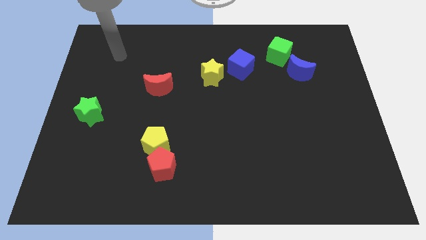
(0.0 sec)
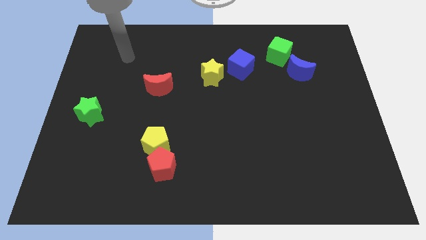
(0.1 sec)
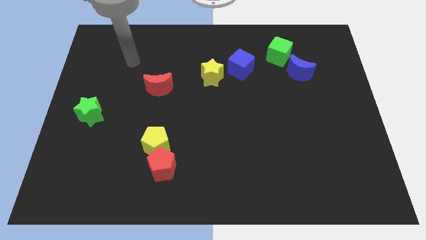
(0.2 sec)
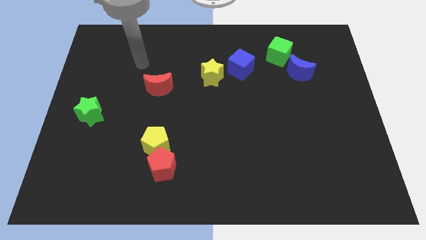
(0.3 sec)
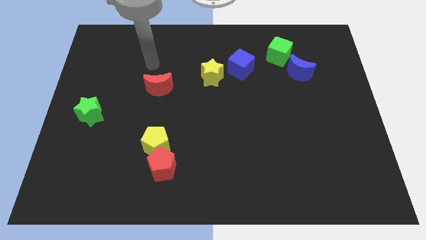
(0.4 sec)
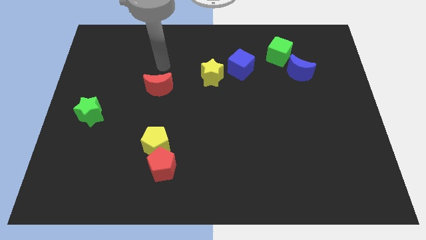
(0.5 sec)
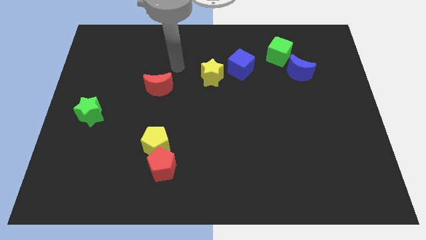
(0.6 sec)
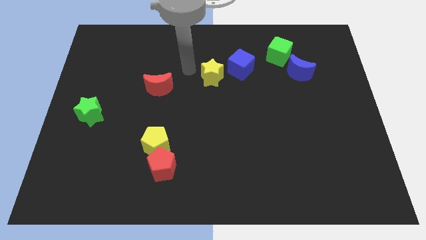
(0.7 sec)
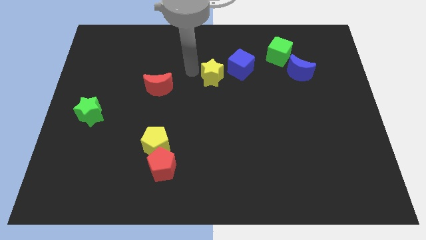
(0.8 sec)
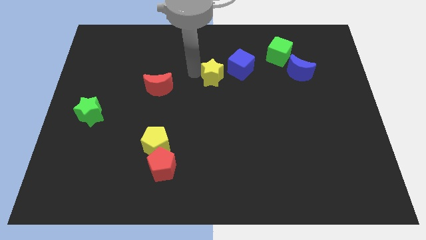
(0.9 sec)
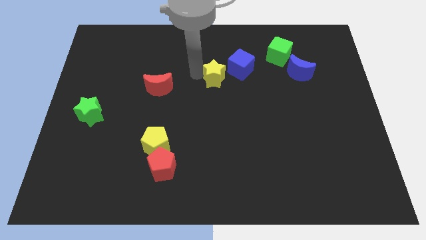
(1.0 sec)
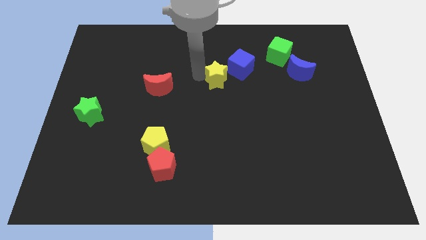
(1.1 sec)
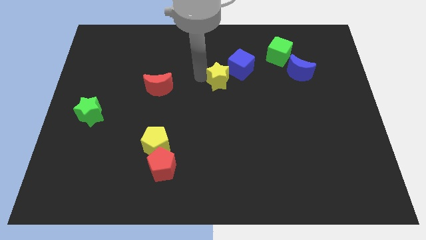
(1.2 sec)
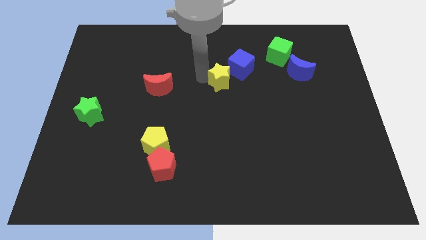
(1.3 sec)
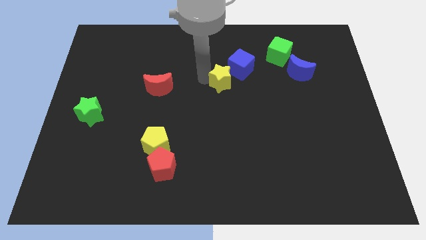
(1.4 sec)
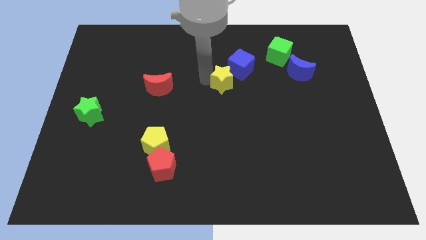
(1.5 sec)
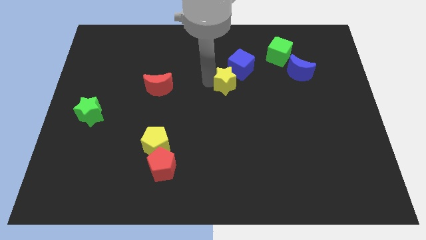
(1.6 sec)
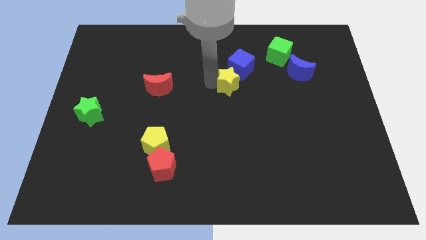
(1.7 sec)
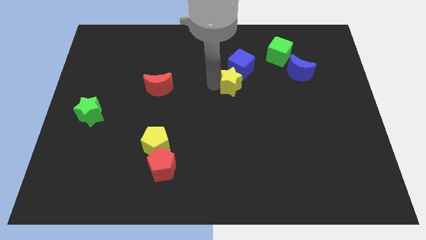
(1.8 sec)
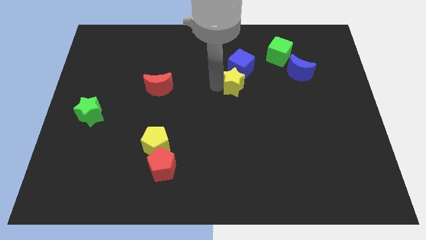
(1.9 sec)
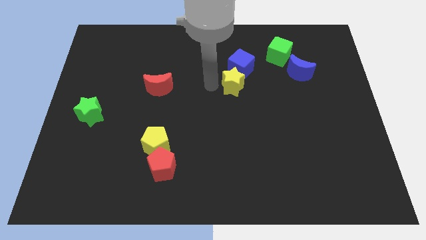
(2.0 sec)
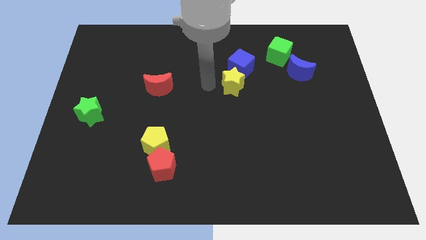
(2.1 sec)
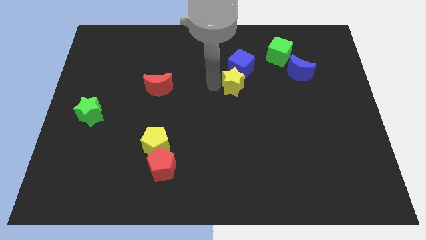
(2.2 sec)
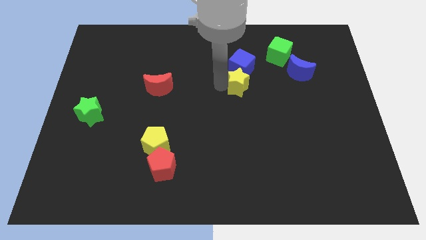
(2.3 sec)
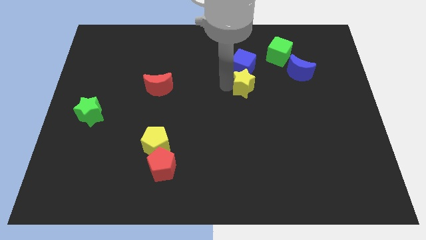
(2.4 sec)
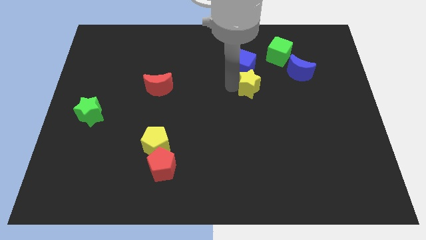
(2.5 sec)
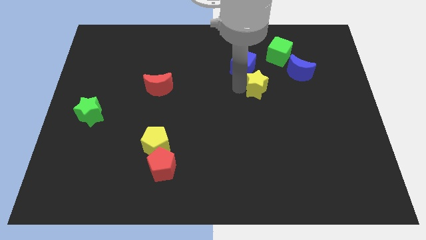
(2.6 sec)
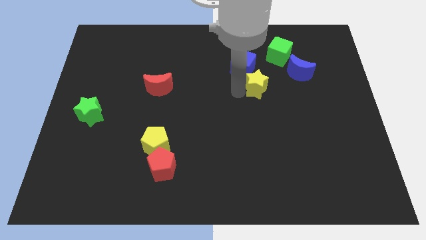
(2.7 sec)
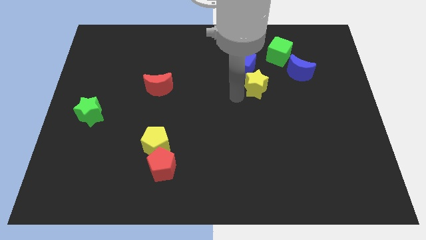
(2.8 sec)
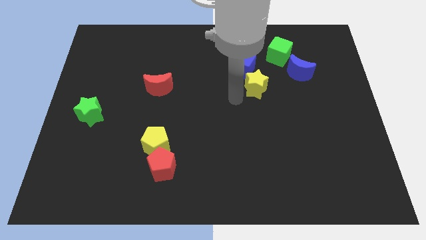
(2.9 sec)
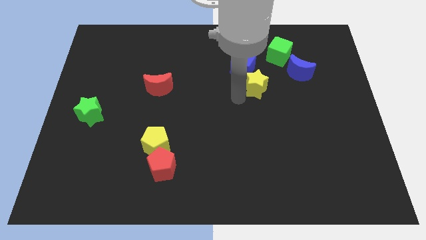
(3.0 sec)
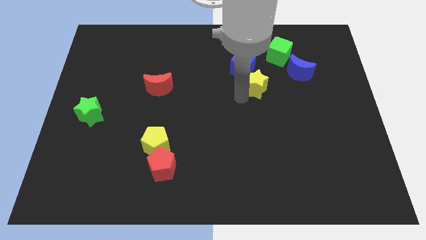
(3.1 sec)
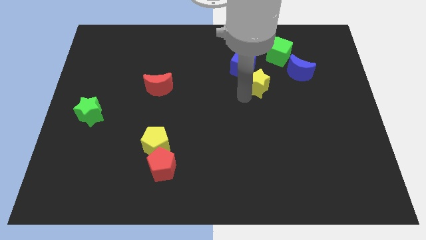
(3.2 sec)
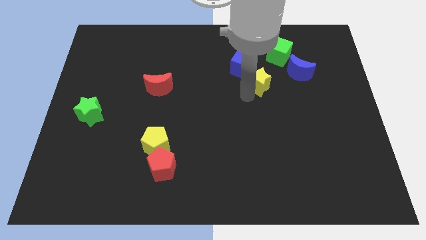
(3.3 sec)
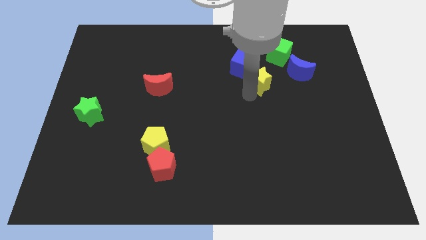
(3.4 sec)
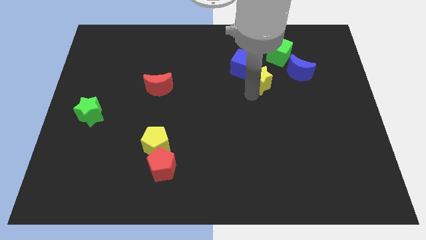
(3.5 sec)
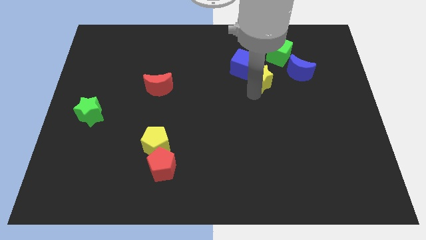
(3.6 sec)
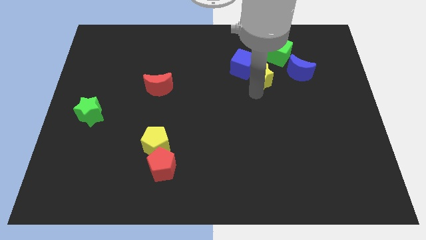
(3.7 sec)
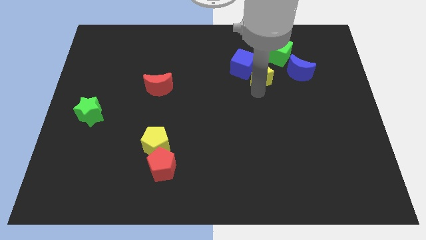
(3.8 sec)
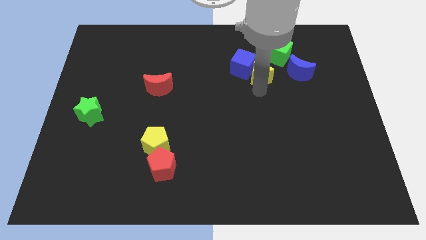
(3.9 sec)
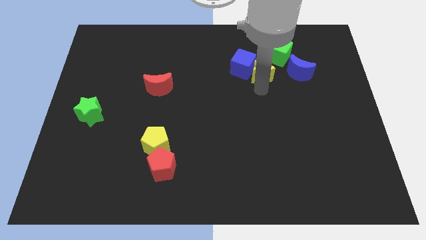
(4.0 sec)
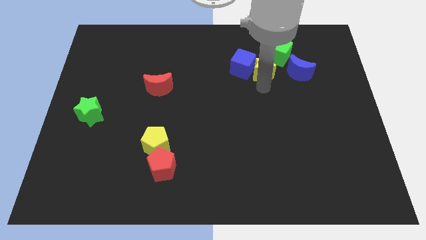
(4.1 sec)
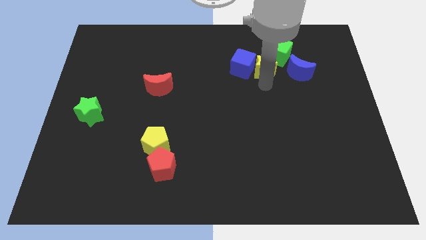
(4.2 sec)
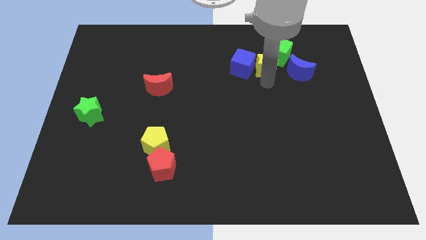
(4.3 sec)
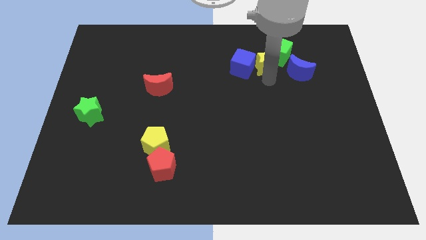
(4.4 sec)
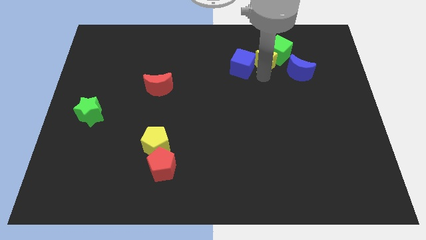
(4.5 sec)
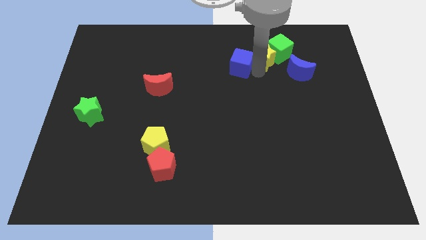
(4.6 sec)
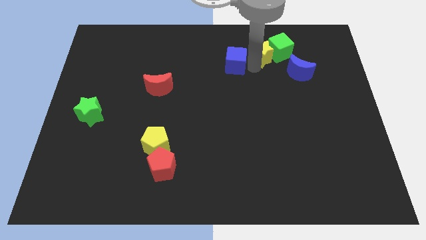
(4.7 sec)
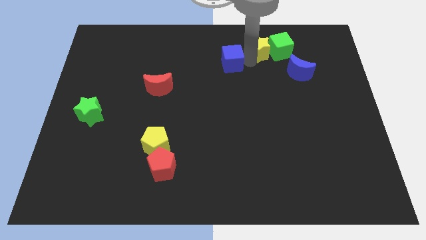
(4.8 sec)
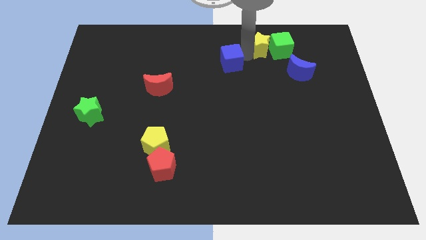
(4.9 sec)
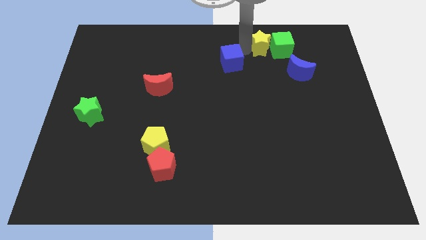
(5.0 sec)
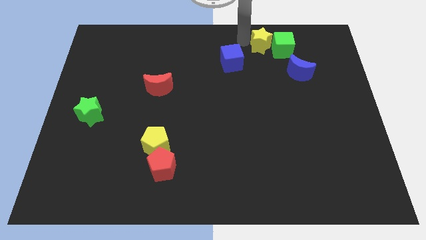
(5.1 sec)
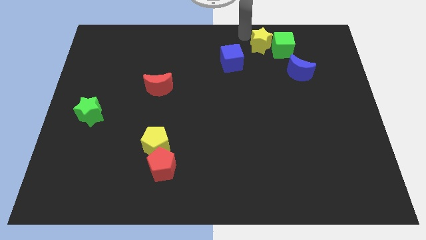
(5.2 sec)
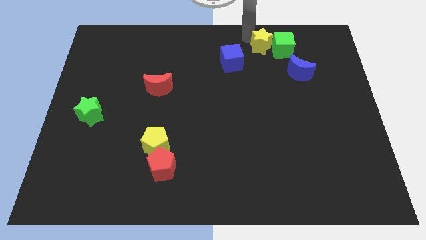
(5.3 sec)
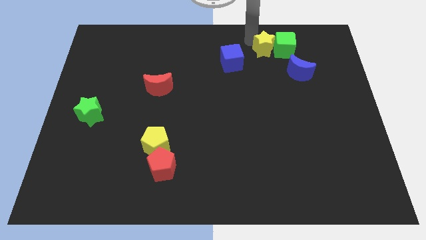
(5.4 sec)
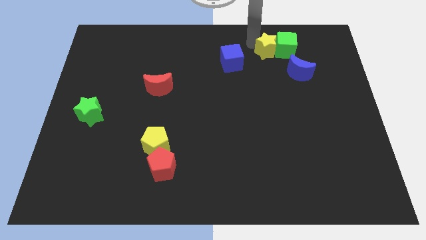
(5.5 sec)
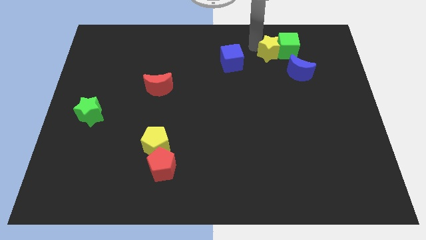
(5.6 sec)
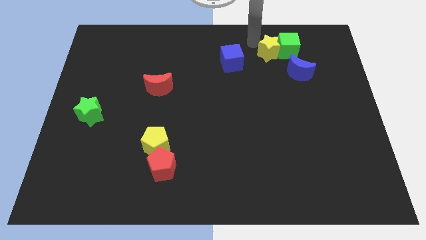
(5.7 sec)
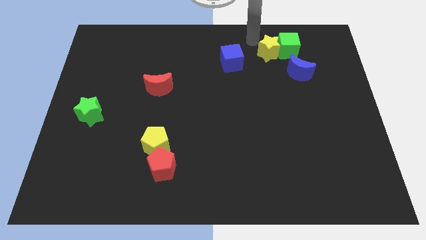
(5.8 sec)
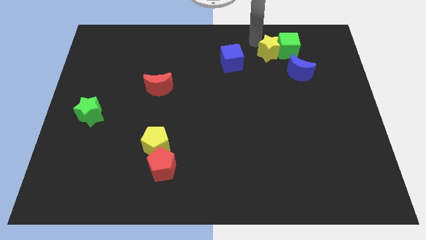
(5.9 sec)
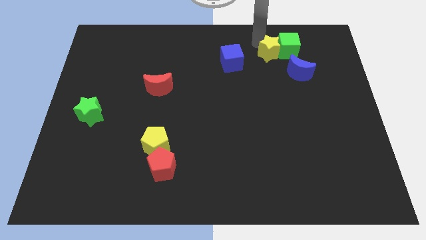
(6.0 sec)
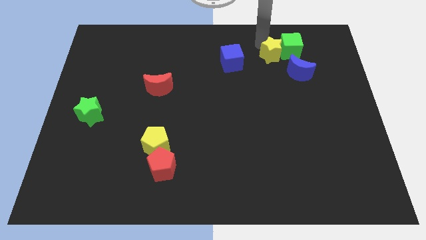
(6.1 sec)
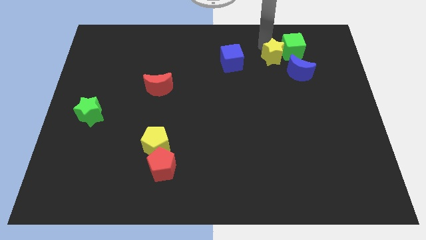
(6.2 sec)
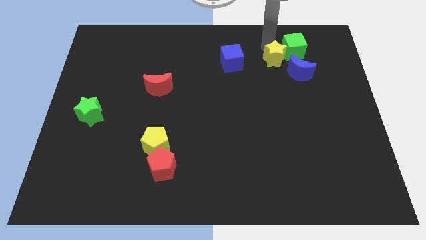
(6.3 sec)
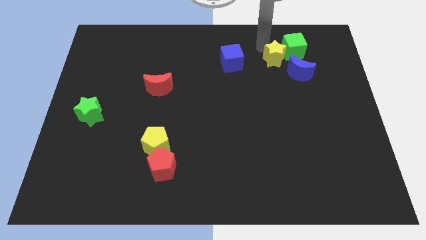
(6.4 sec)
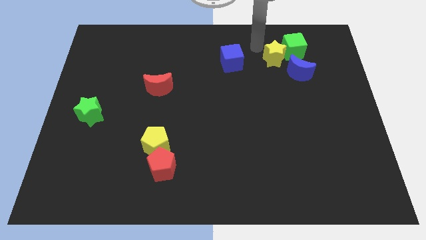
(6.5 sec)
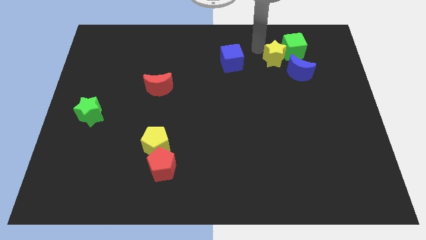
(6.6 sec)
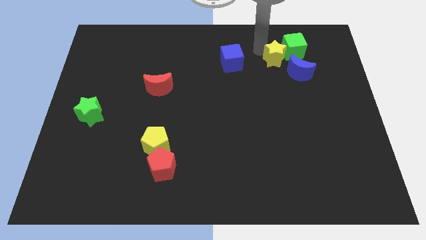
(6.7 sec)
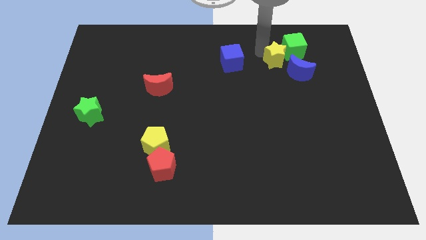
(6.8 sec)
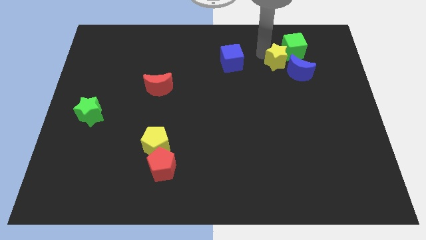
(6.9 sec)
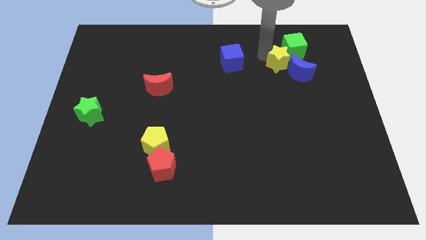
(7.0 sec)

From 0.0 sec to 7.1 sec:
move the yellow star to the blue moon
